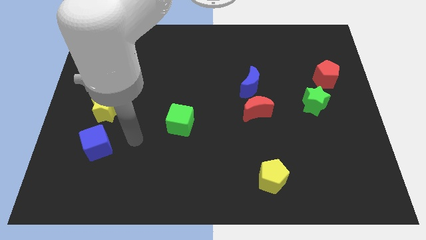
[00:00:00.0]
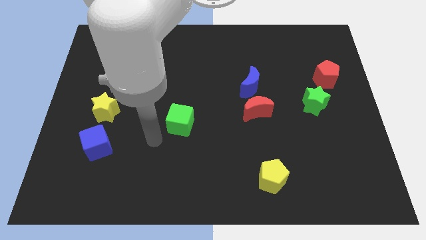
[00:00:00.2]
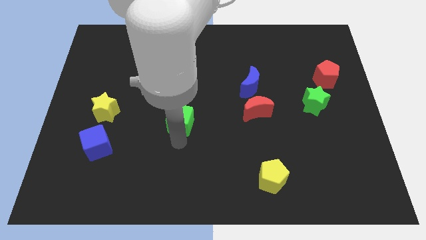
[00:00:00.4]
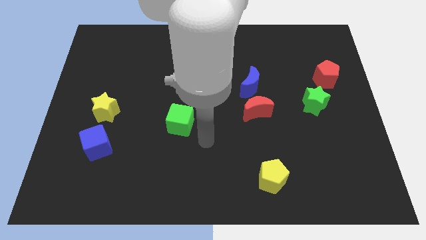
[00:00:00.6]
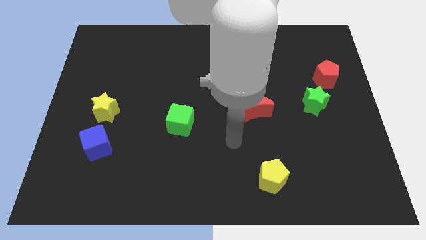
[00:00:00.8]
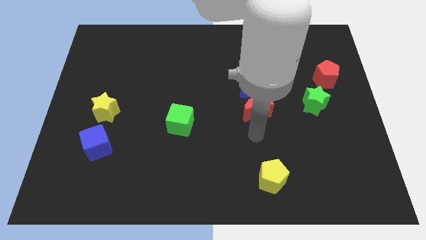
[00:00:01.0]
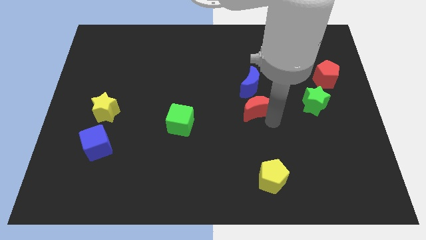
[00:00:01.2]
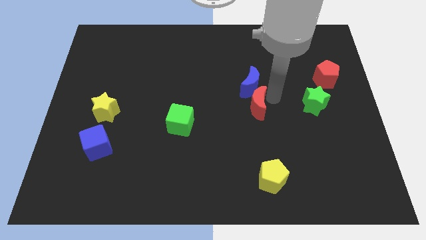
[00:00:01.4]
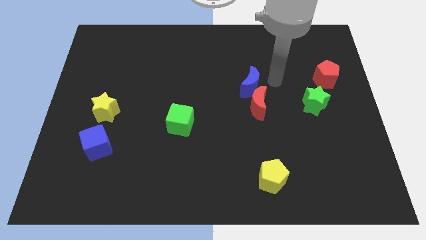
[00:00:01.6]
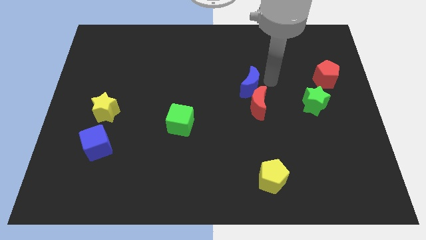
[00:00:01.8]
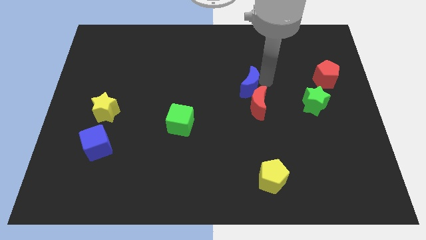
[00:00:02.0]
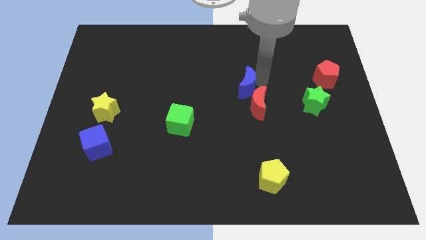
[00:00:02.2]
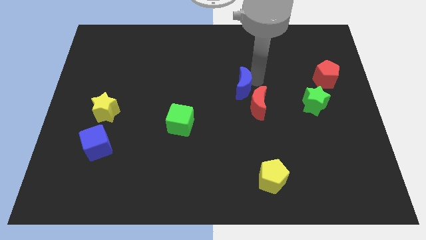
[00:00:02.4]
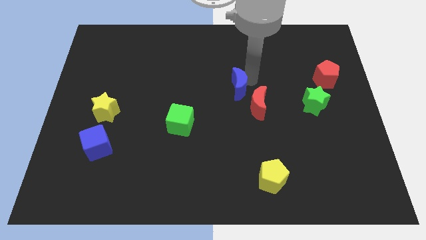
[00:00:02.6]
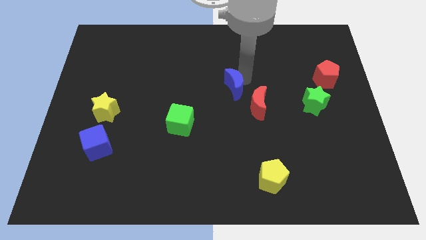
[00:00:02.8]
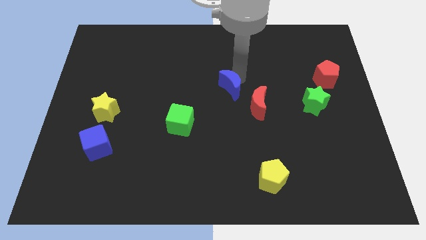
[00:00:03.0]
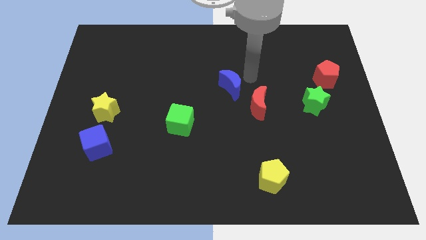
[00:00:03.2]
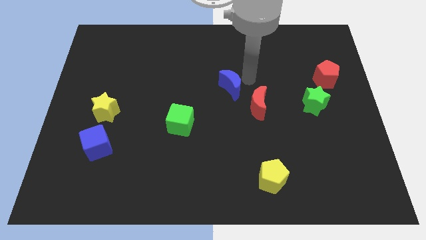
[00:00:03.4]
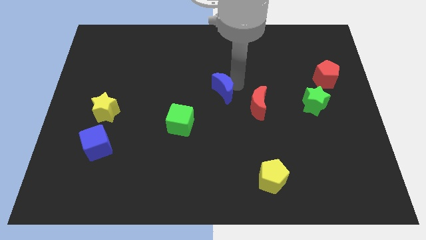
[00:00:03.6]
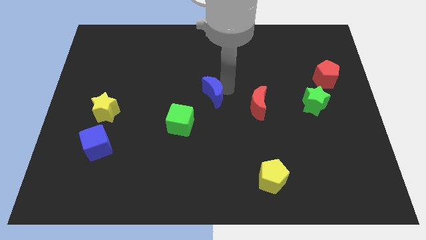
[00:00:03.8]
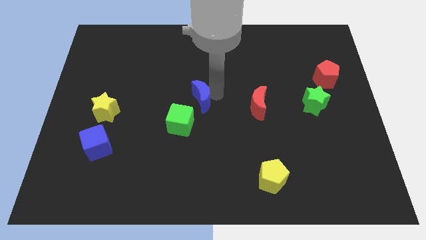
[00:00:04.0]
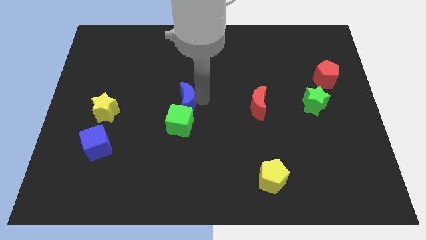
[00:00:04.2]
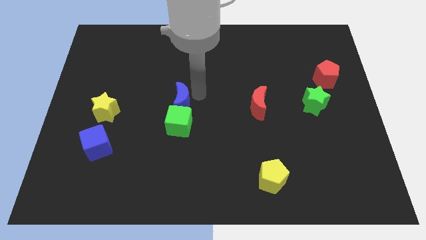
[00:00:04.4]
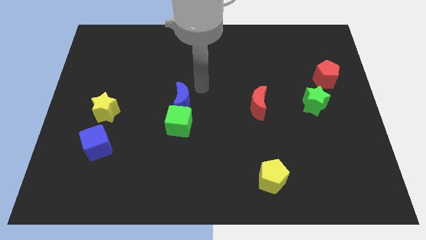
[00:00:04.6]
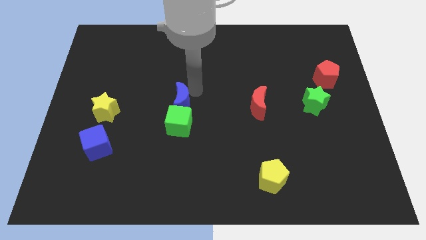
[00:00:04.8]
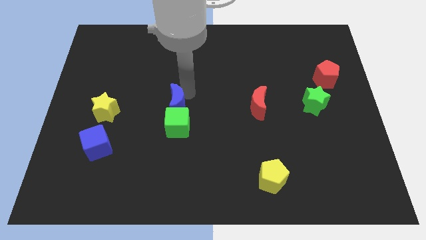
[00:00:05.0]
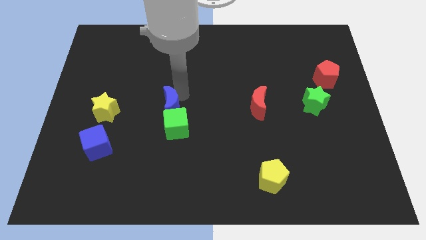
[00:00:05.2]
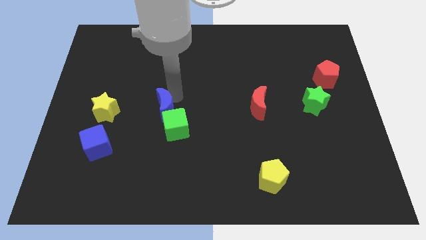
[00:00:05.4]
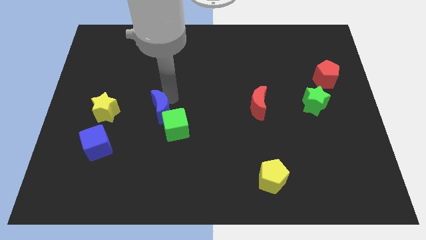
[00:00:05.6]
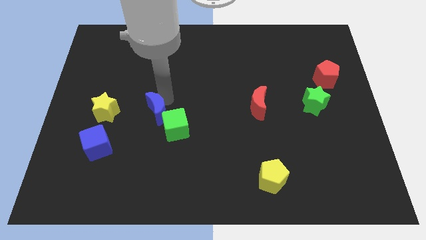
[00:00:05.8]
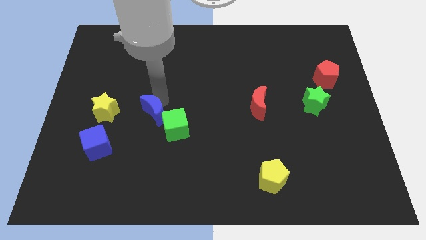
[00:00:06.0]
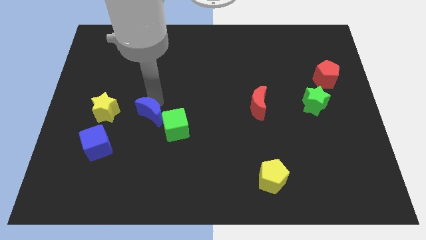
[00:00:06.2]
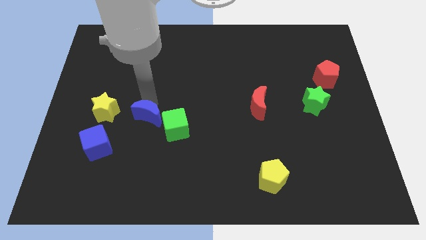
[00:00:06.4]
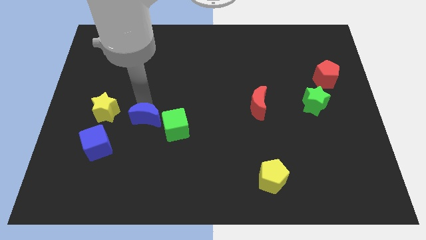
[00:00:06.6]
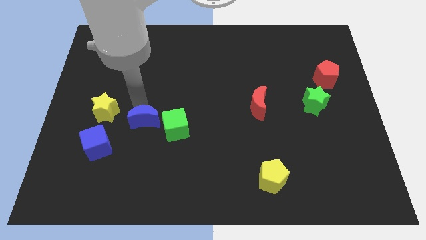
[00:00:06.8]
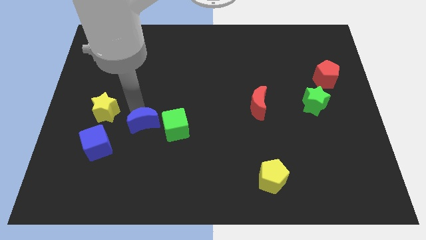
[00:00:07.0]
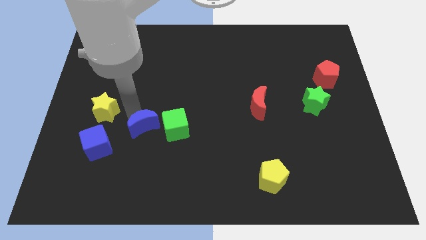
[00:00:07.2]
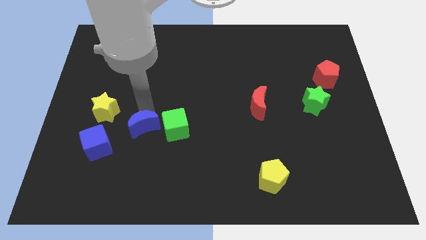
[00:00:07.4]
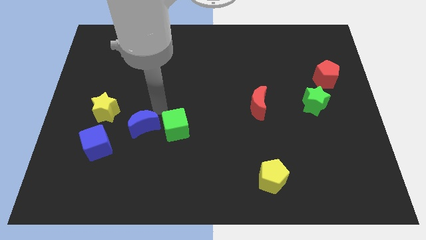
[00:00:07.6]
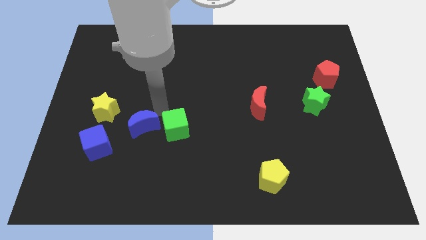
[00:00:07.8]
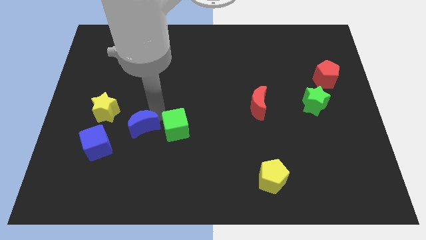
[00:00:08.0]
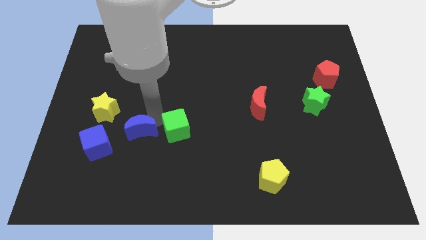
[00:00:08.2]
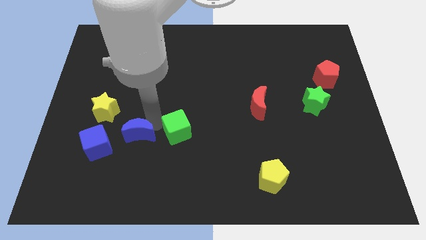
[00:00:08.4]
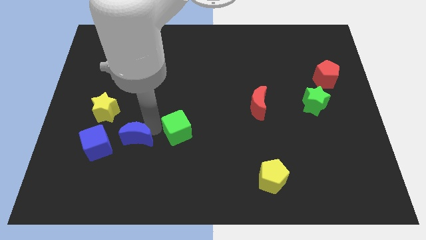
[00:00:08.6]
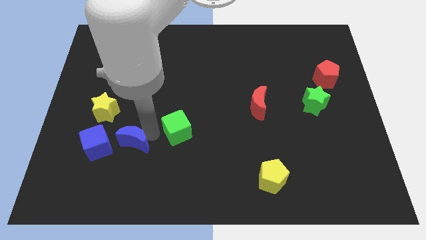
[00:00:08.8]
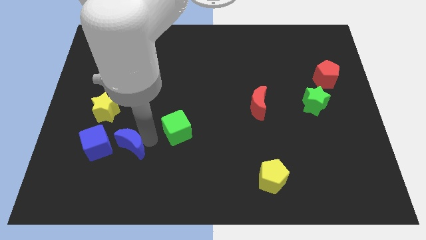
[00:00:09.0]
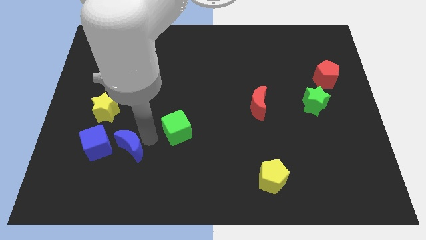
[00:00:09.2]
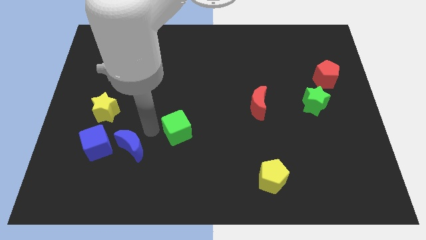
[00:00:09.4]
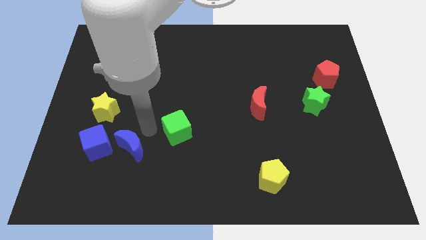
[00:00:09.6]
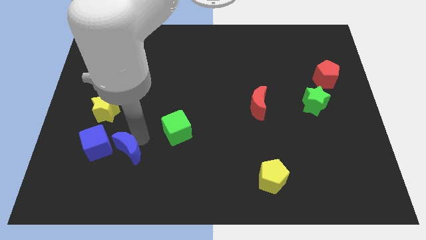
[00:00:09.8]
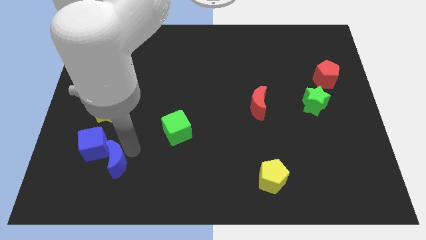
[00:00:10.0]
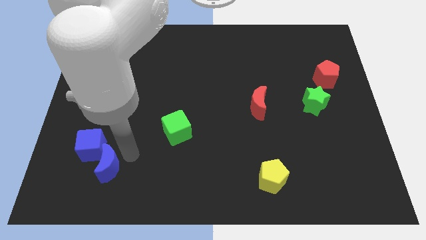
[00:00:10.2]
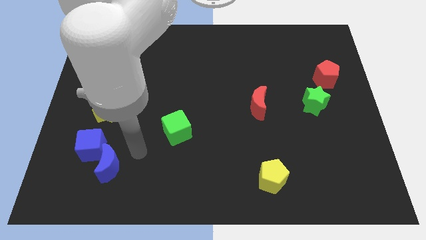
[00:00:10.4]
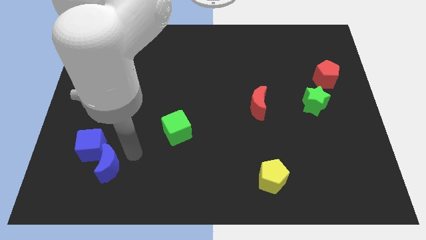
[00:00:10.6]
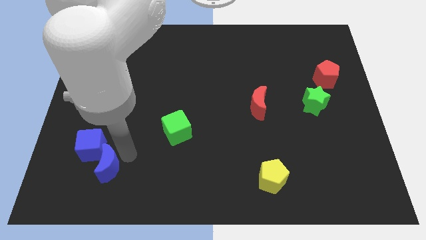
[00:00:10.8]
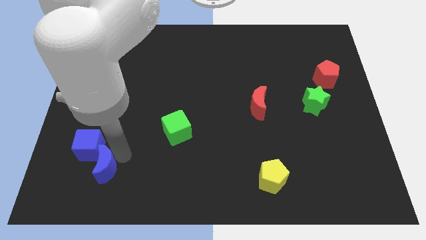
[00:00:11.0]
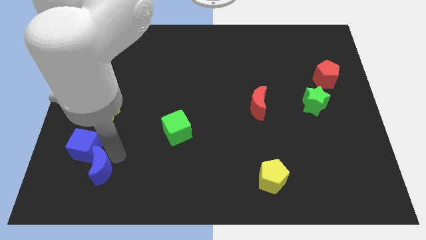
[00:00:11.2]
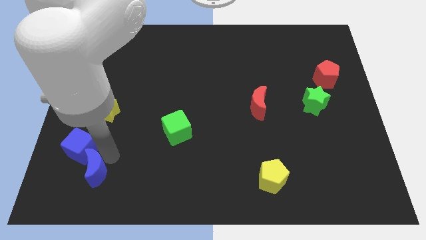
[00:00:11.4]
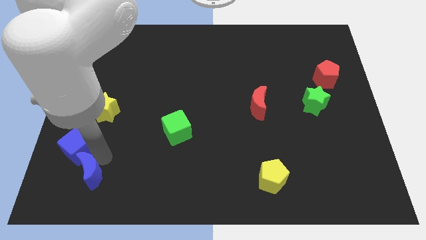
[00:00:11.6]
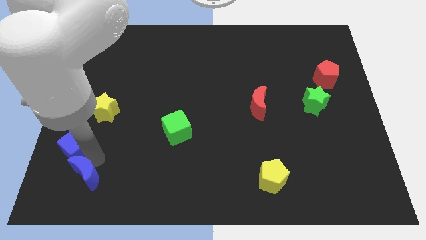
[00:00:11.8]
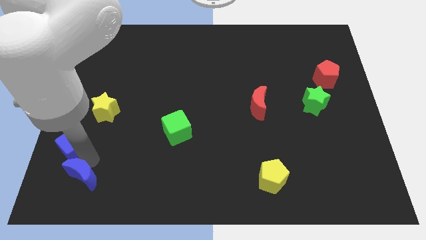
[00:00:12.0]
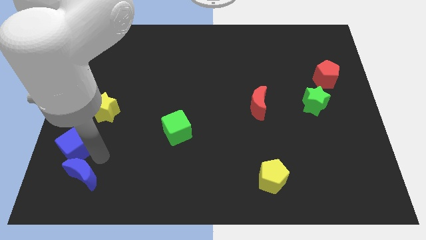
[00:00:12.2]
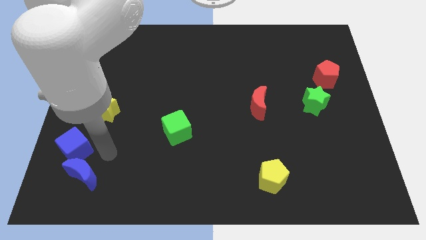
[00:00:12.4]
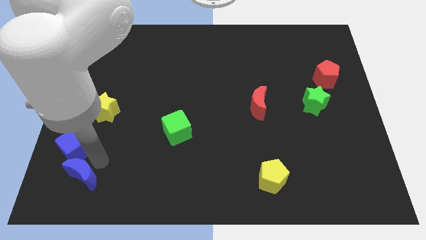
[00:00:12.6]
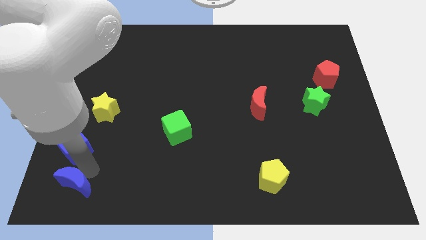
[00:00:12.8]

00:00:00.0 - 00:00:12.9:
put the blue moon to the lower left corner
